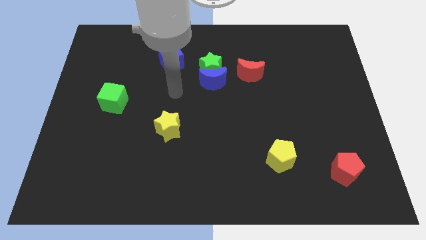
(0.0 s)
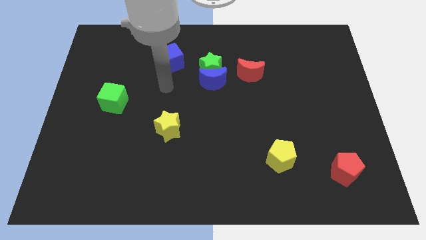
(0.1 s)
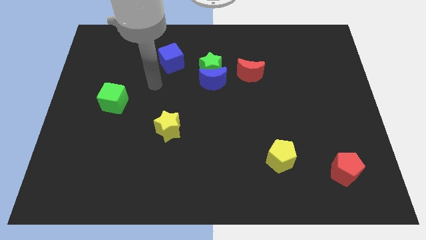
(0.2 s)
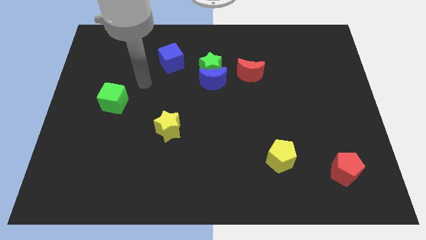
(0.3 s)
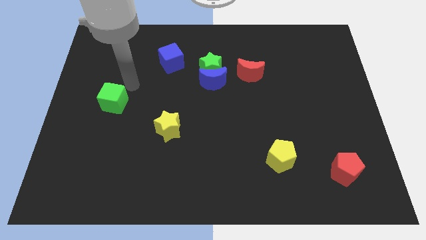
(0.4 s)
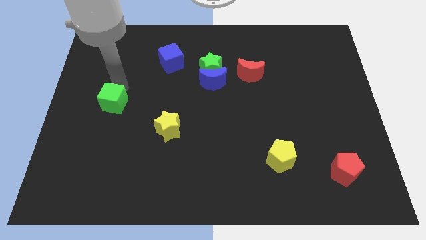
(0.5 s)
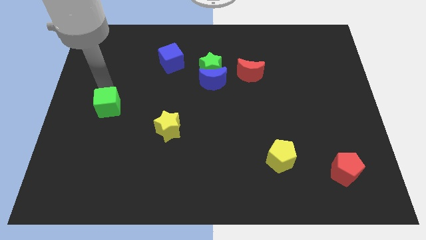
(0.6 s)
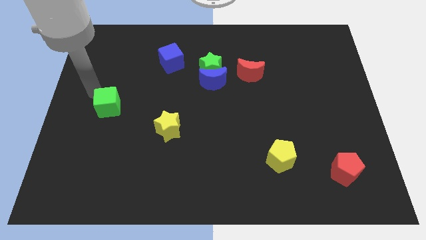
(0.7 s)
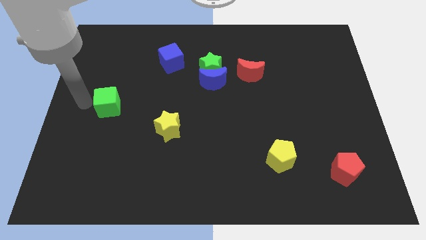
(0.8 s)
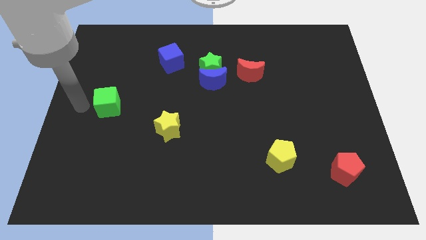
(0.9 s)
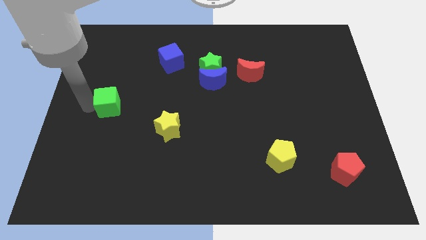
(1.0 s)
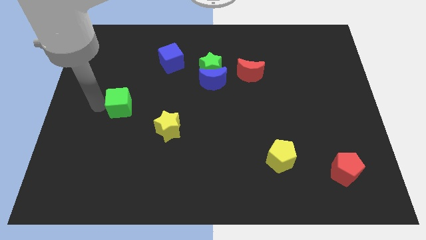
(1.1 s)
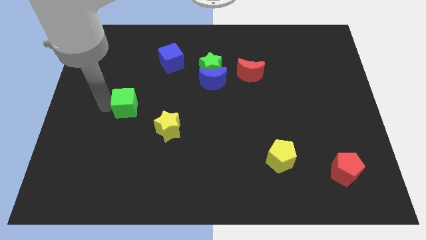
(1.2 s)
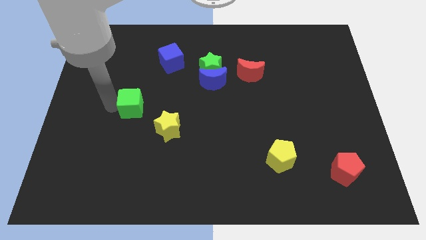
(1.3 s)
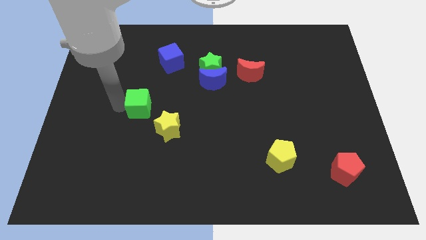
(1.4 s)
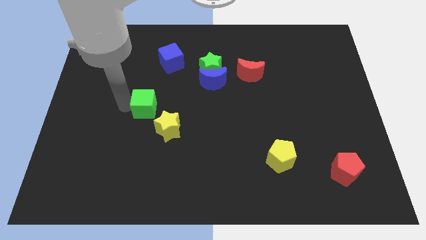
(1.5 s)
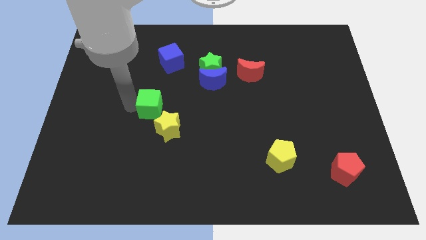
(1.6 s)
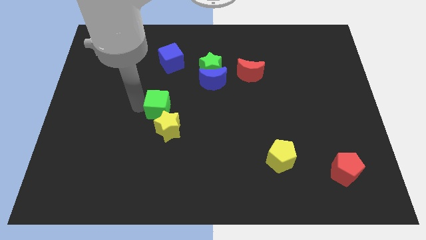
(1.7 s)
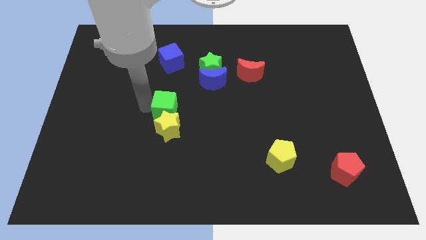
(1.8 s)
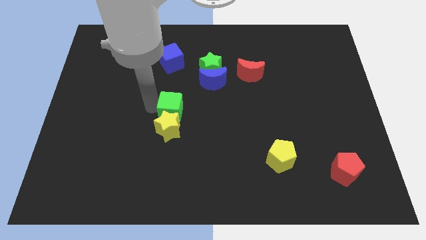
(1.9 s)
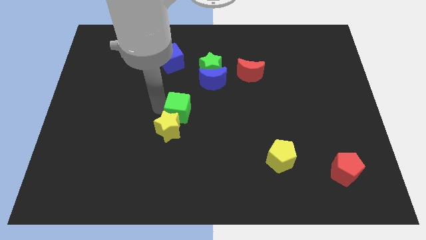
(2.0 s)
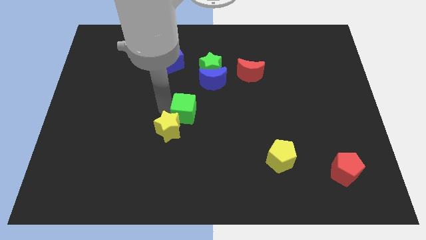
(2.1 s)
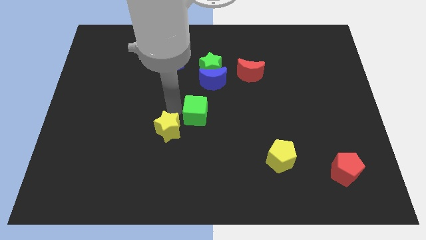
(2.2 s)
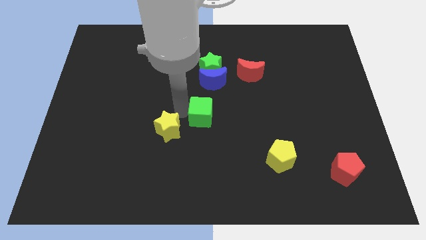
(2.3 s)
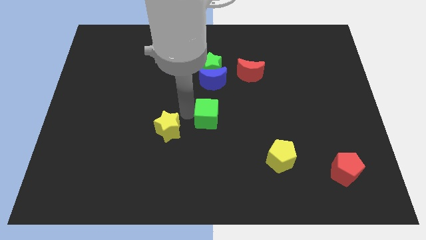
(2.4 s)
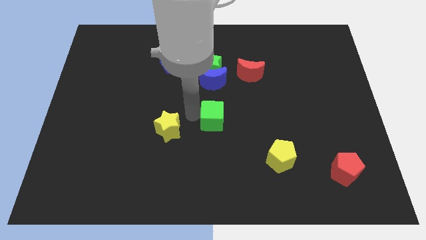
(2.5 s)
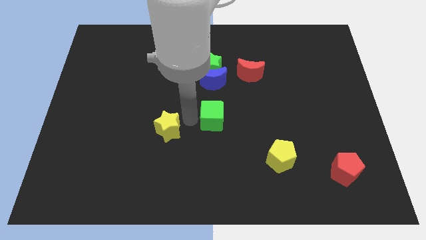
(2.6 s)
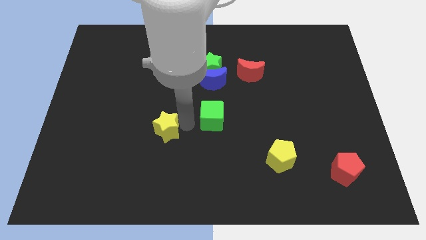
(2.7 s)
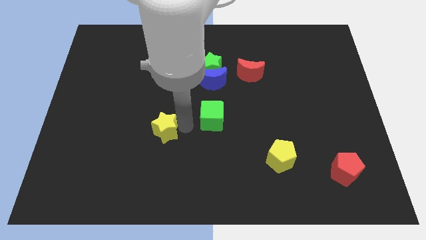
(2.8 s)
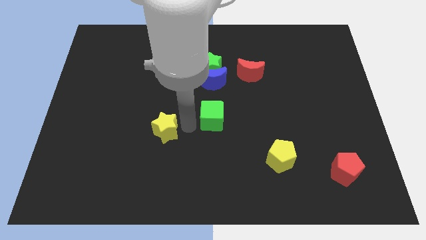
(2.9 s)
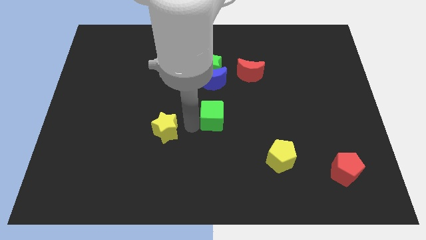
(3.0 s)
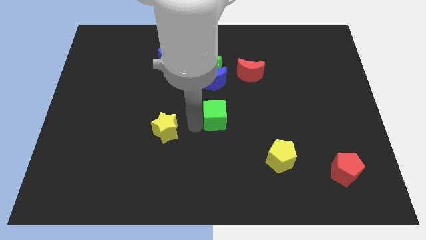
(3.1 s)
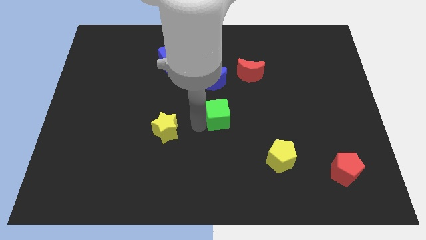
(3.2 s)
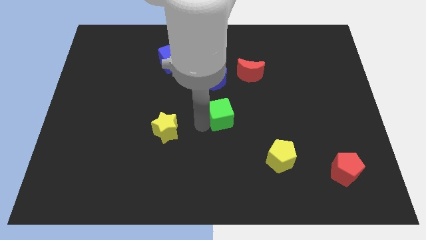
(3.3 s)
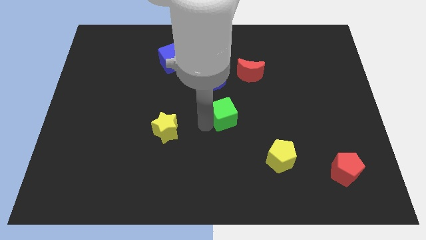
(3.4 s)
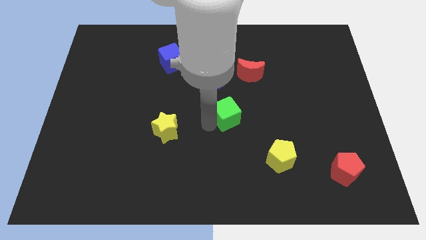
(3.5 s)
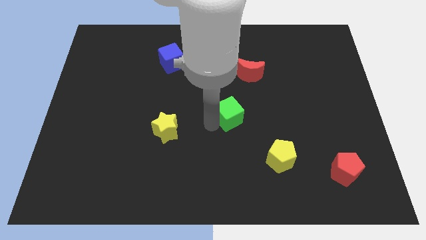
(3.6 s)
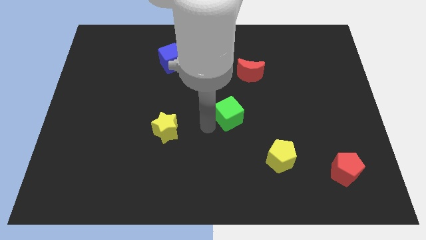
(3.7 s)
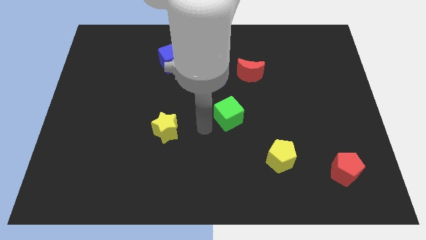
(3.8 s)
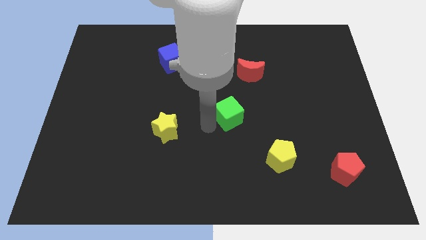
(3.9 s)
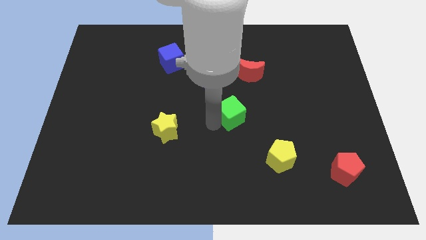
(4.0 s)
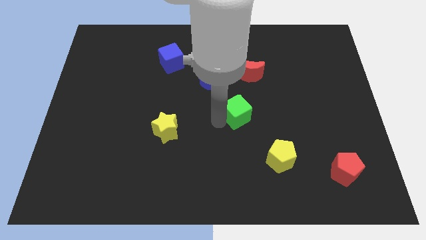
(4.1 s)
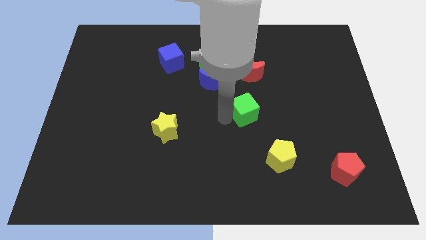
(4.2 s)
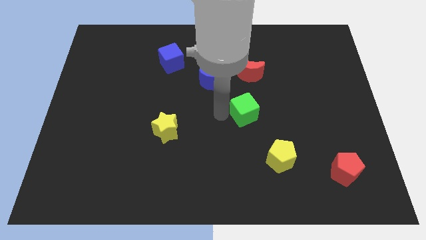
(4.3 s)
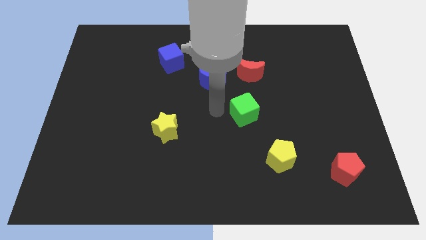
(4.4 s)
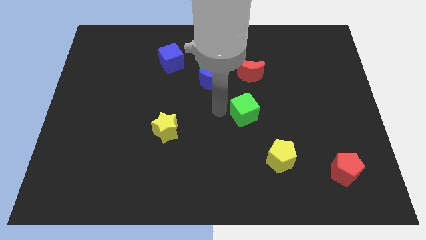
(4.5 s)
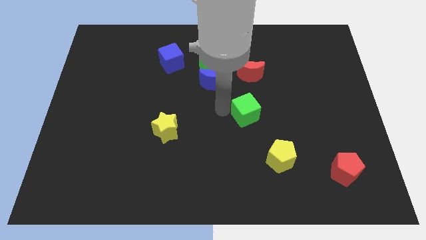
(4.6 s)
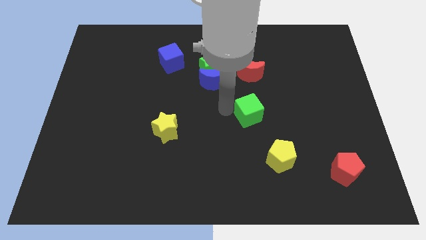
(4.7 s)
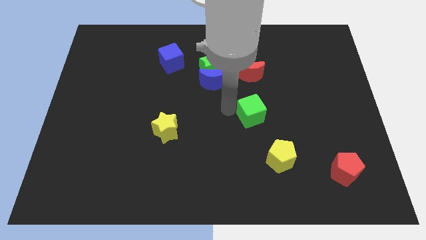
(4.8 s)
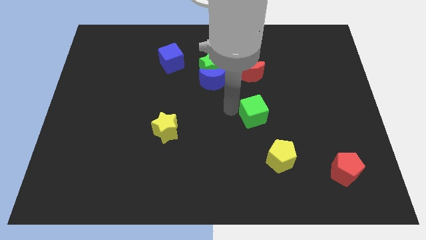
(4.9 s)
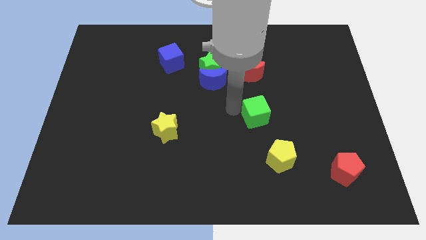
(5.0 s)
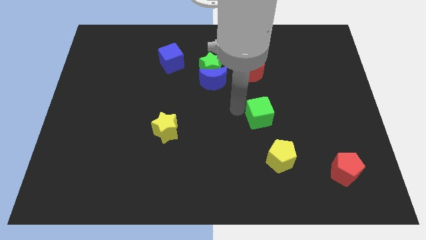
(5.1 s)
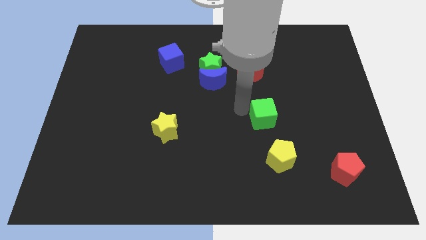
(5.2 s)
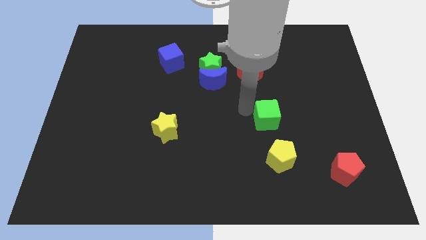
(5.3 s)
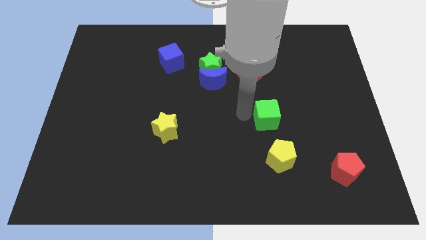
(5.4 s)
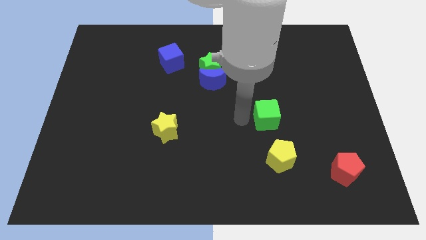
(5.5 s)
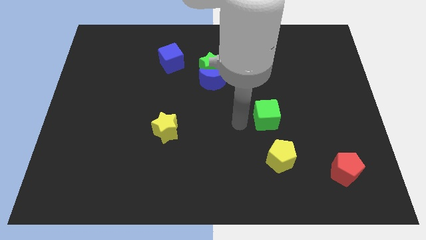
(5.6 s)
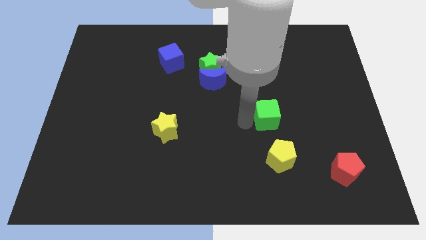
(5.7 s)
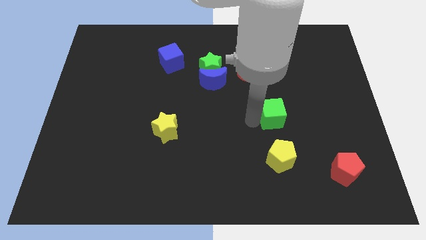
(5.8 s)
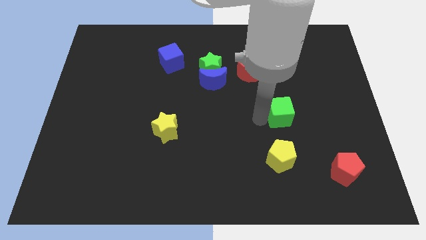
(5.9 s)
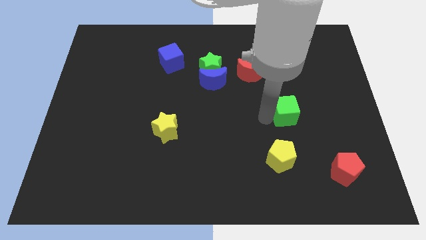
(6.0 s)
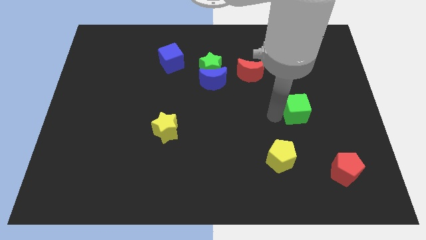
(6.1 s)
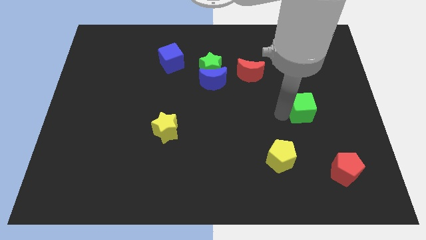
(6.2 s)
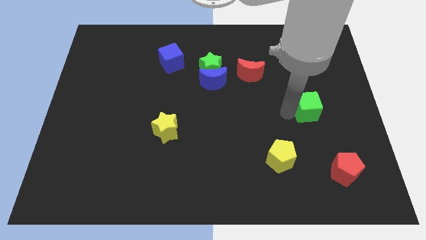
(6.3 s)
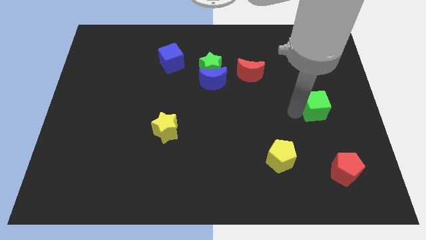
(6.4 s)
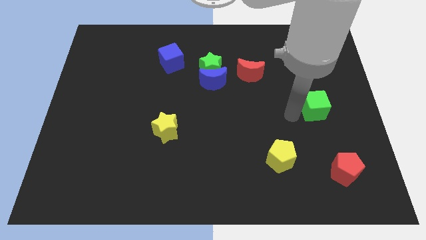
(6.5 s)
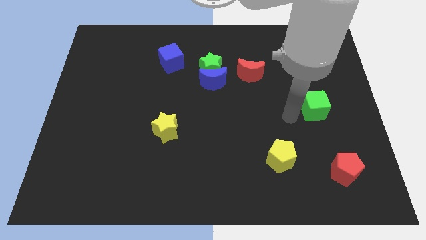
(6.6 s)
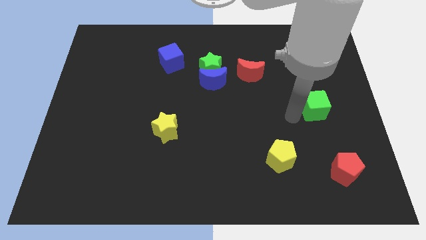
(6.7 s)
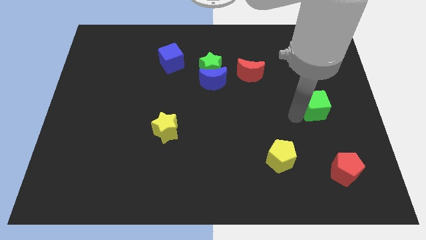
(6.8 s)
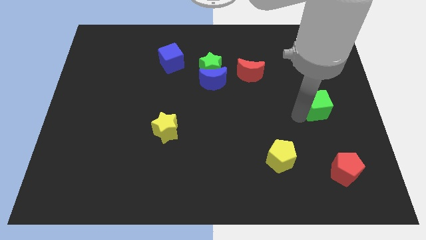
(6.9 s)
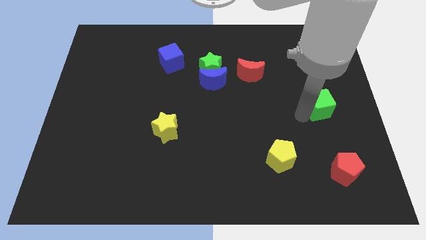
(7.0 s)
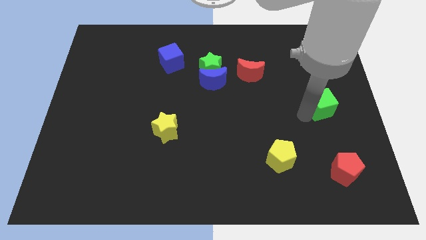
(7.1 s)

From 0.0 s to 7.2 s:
push the green cube to the right side of the board

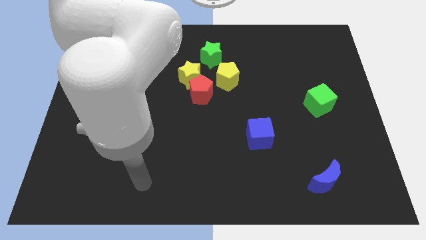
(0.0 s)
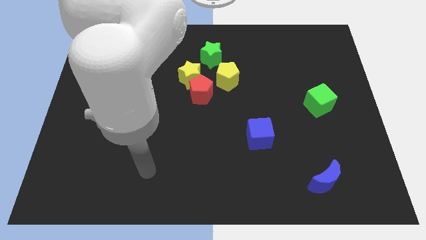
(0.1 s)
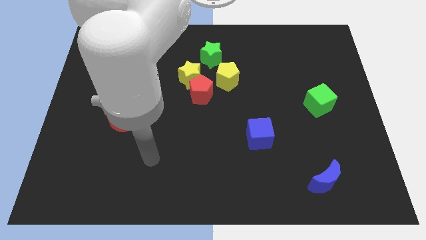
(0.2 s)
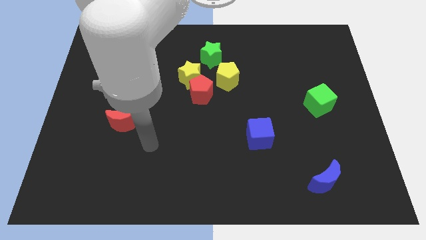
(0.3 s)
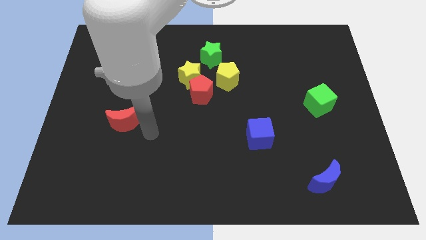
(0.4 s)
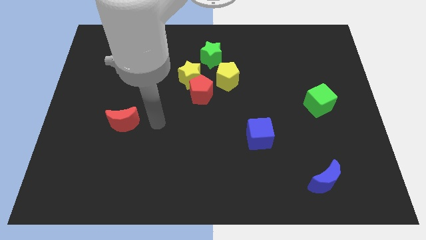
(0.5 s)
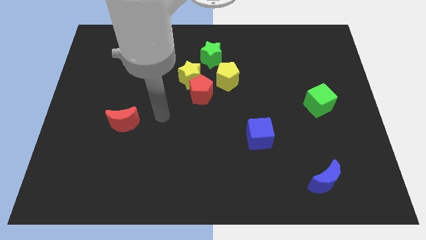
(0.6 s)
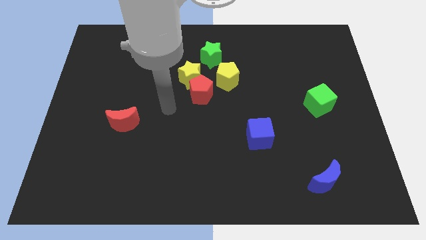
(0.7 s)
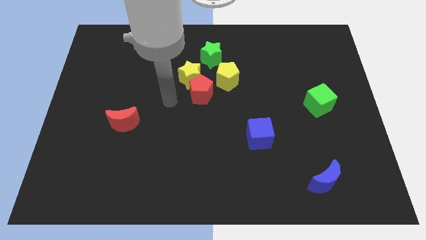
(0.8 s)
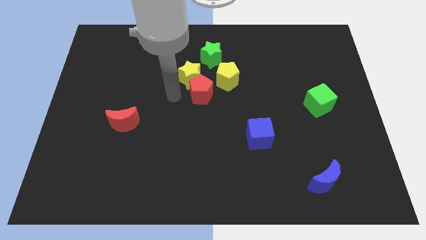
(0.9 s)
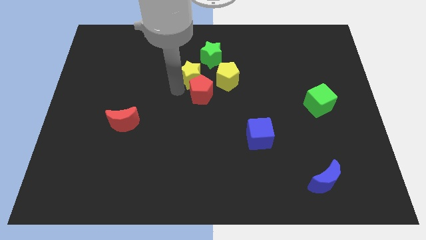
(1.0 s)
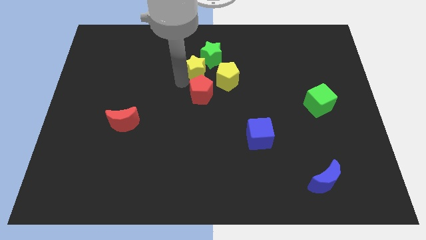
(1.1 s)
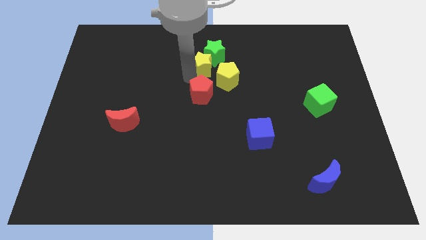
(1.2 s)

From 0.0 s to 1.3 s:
slide the green star to the towards your base
